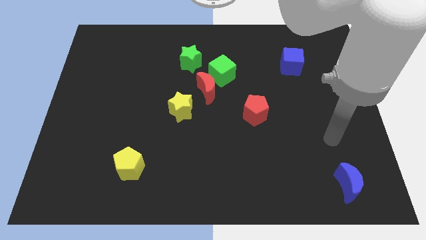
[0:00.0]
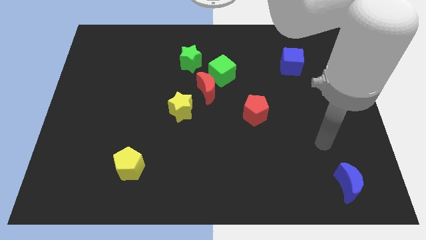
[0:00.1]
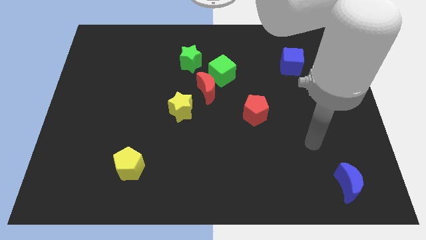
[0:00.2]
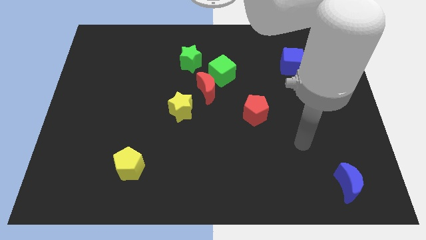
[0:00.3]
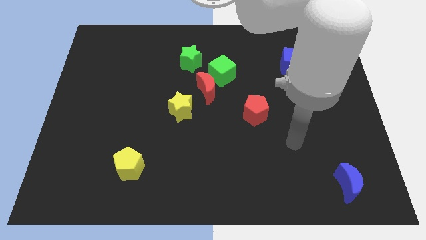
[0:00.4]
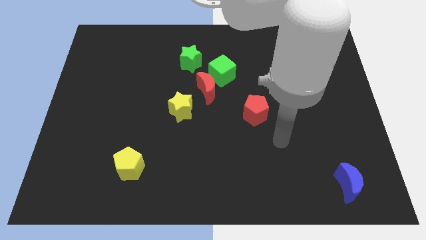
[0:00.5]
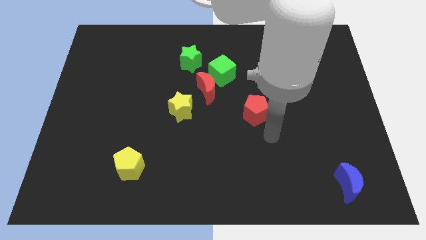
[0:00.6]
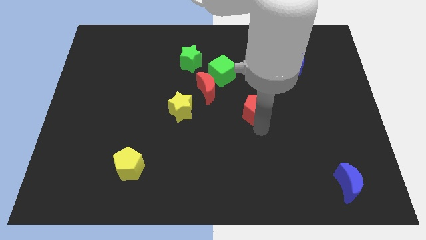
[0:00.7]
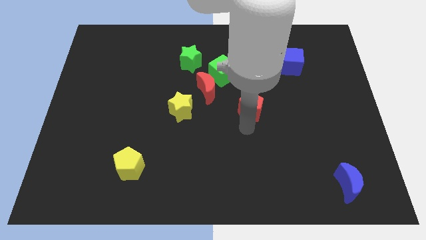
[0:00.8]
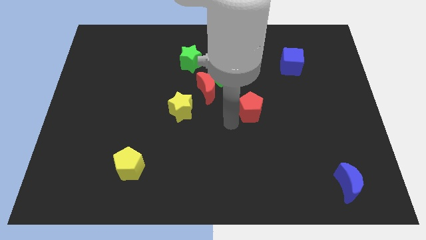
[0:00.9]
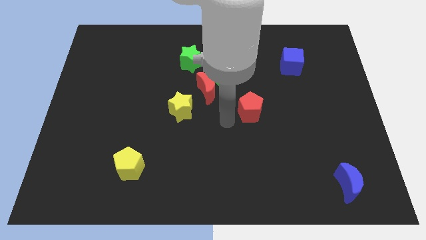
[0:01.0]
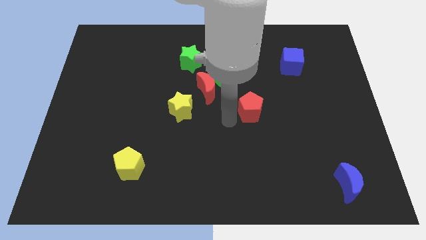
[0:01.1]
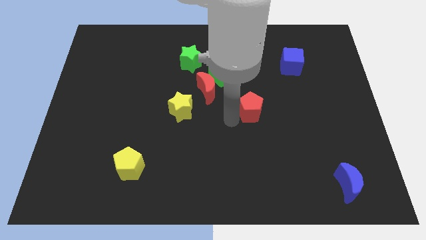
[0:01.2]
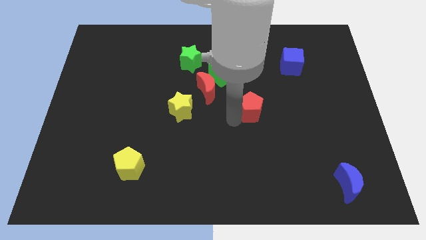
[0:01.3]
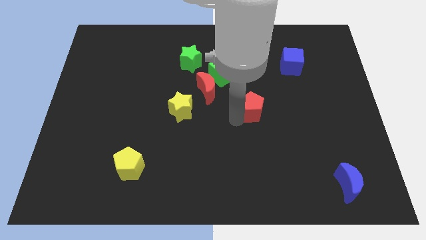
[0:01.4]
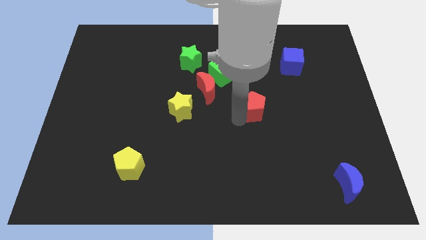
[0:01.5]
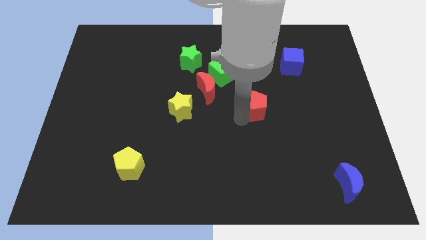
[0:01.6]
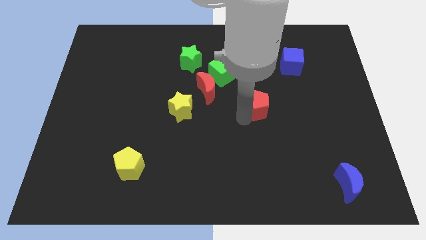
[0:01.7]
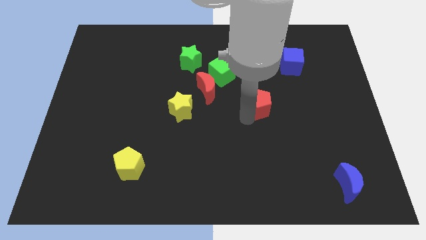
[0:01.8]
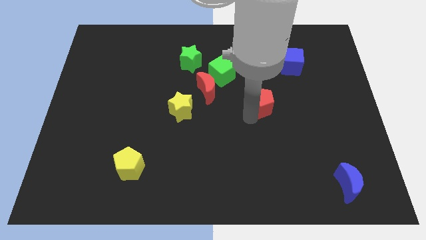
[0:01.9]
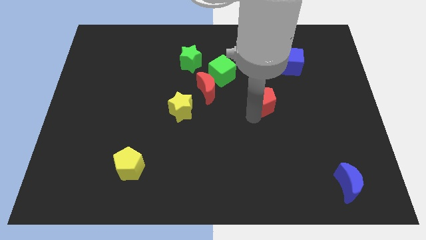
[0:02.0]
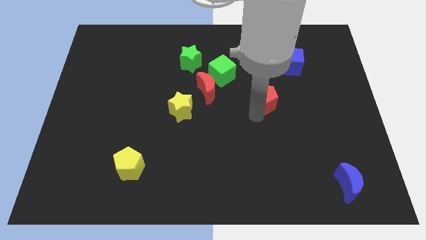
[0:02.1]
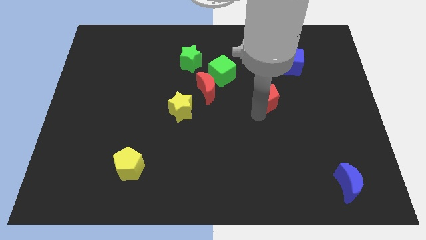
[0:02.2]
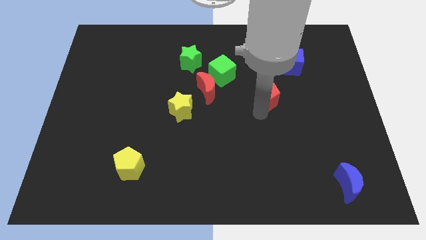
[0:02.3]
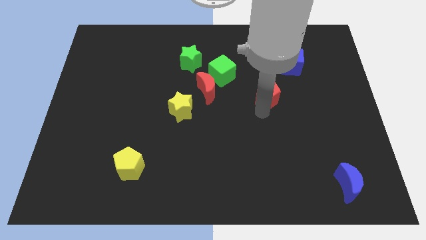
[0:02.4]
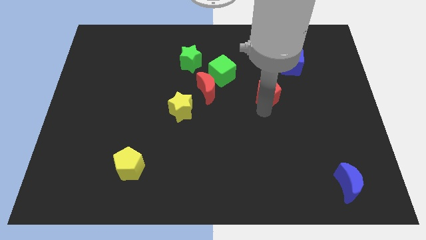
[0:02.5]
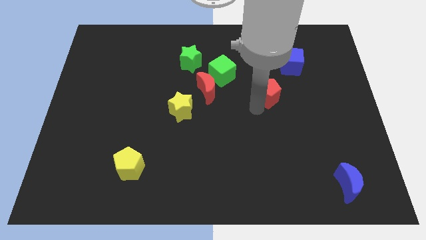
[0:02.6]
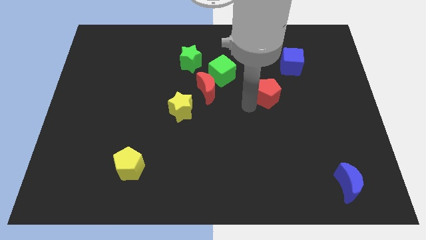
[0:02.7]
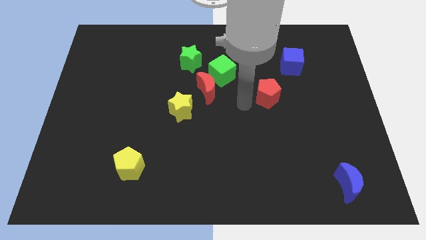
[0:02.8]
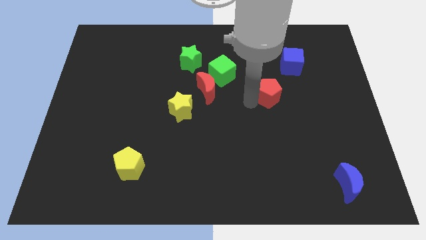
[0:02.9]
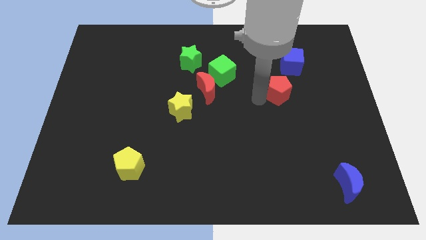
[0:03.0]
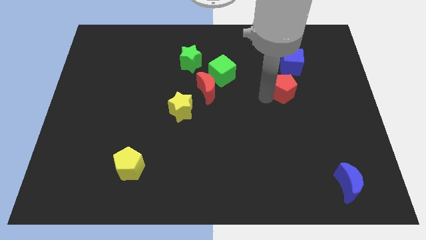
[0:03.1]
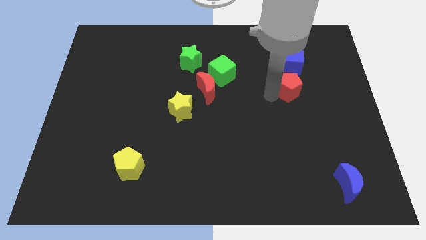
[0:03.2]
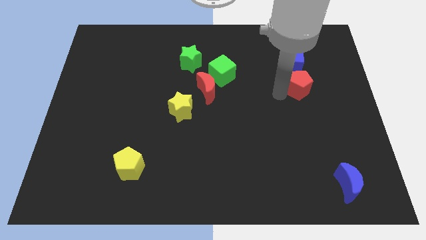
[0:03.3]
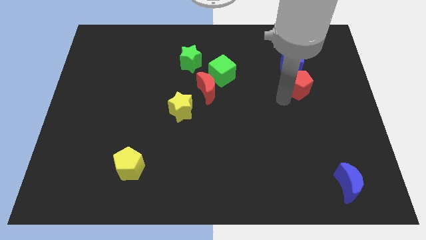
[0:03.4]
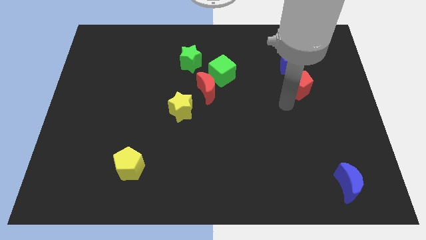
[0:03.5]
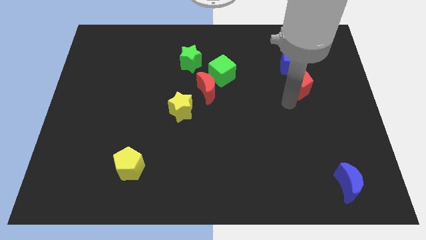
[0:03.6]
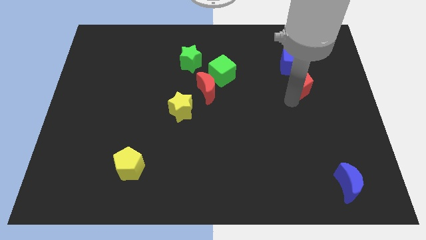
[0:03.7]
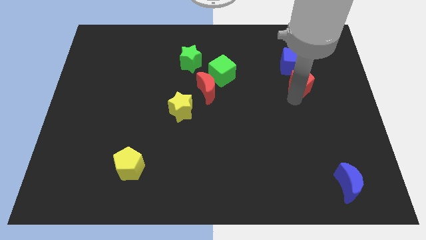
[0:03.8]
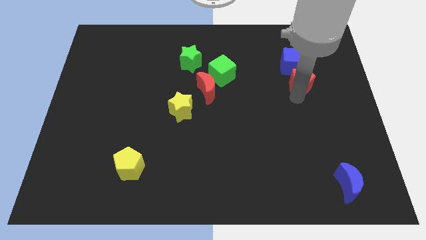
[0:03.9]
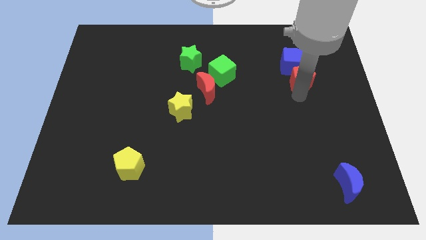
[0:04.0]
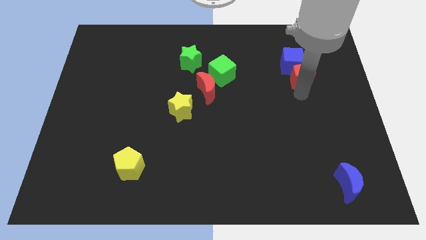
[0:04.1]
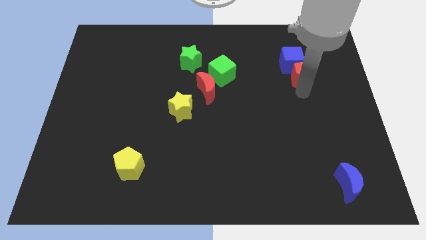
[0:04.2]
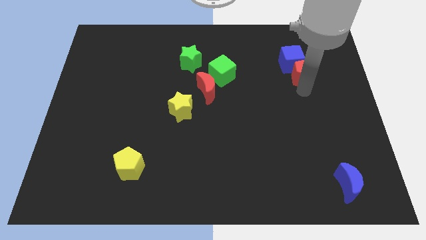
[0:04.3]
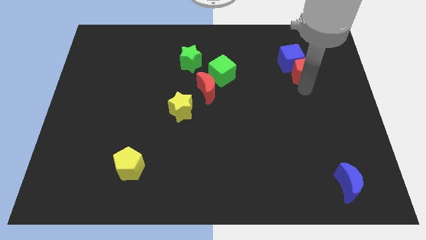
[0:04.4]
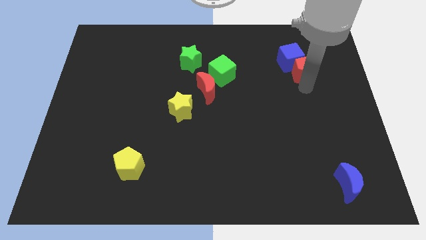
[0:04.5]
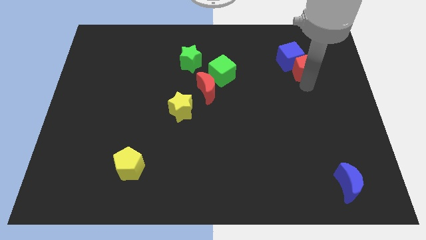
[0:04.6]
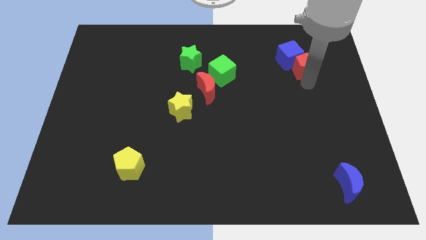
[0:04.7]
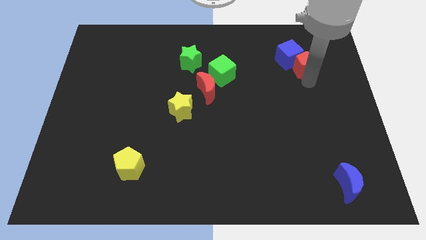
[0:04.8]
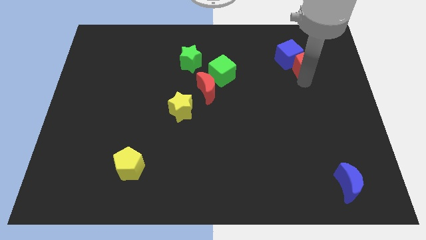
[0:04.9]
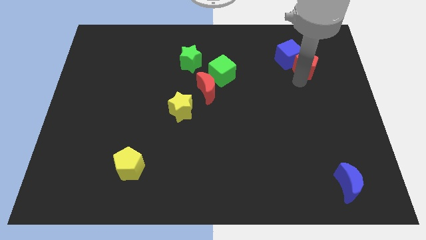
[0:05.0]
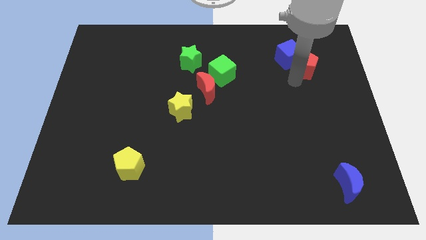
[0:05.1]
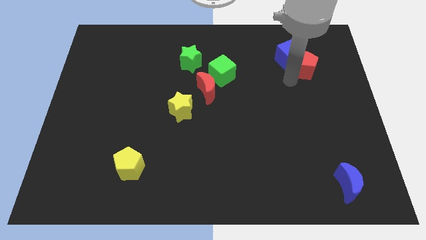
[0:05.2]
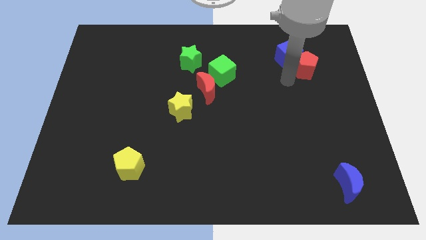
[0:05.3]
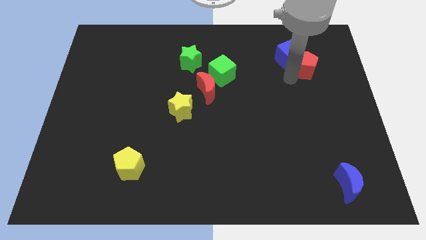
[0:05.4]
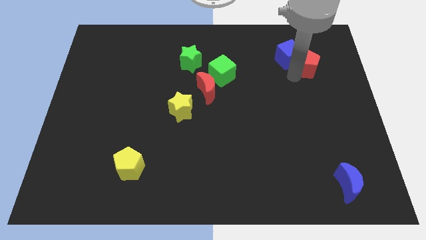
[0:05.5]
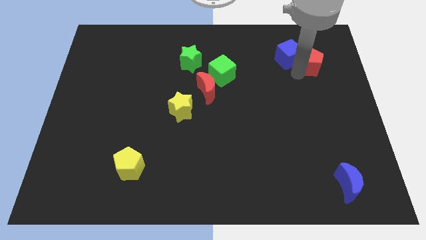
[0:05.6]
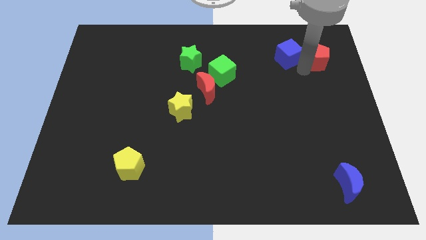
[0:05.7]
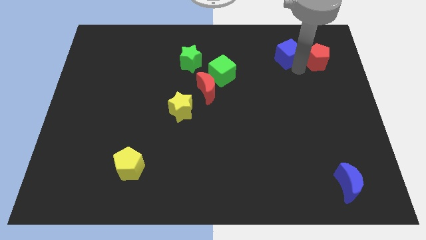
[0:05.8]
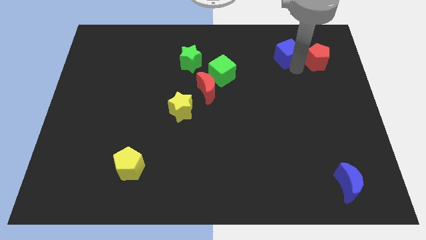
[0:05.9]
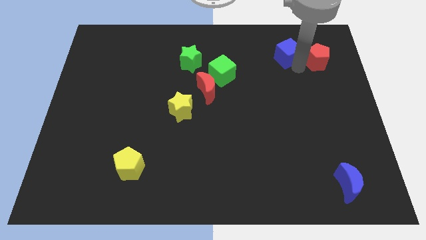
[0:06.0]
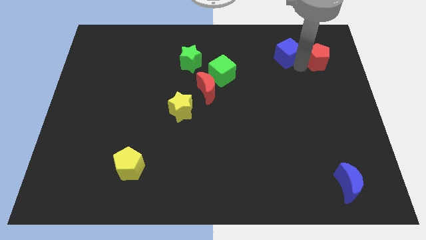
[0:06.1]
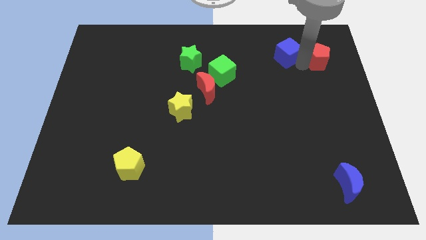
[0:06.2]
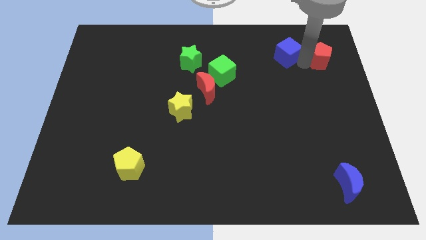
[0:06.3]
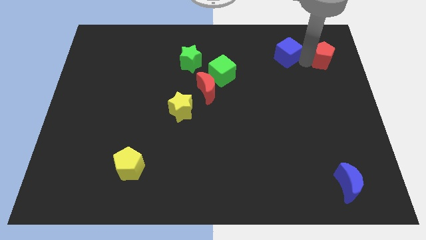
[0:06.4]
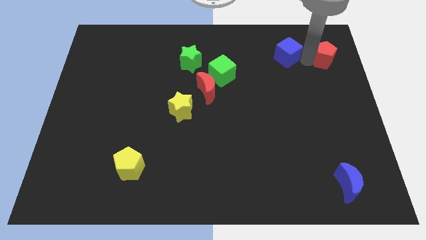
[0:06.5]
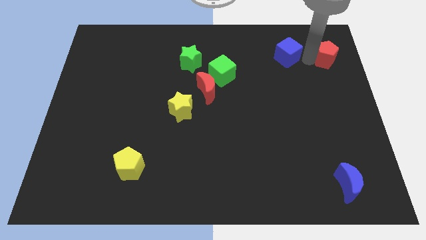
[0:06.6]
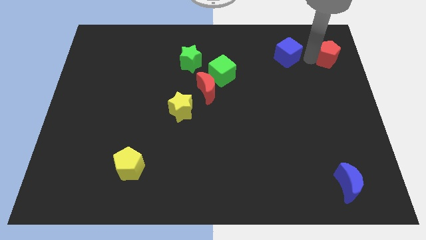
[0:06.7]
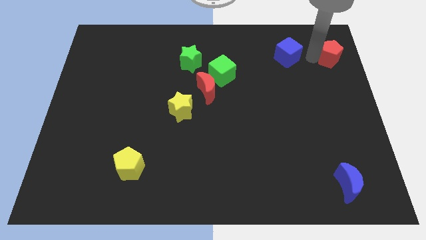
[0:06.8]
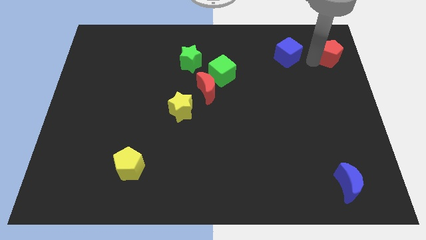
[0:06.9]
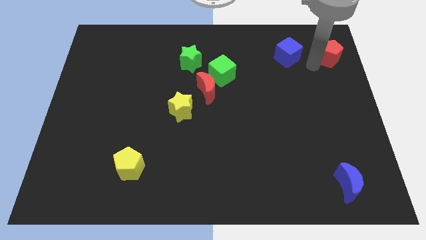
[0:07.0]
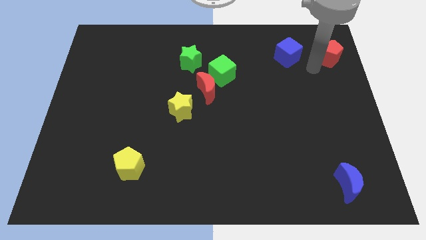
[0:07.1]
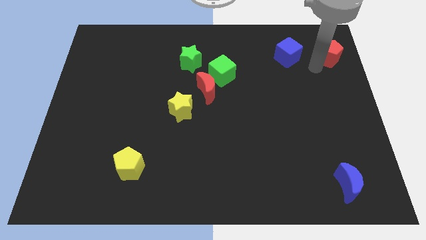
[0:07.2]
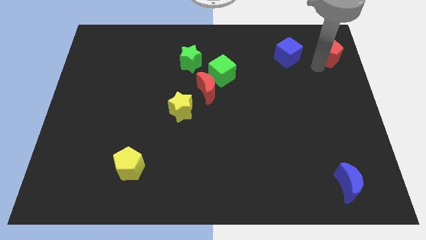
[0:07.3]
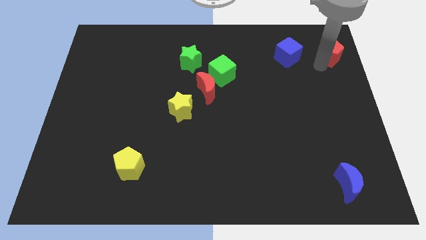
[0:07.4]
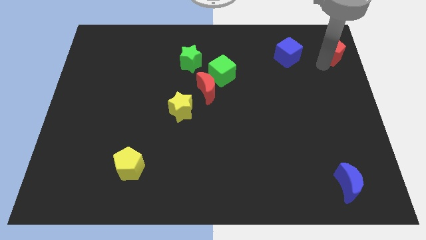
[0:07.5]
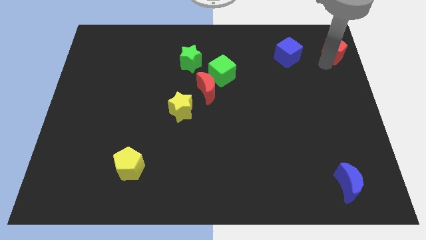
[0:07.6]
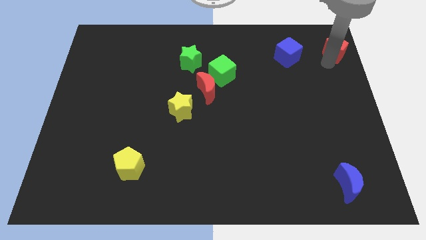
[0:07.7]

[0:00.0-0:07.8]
put the red pentagon to the upper right corner
